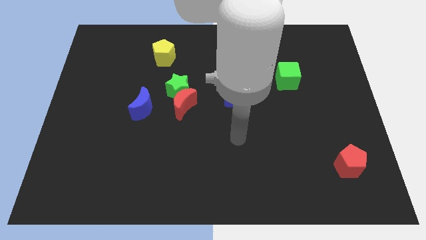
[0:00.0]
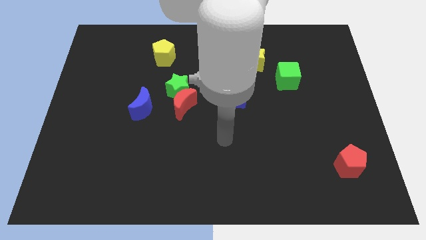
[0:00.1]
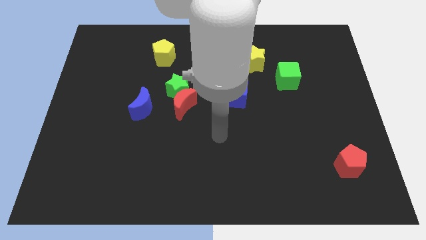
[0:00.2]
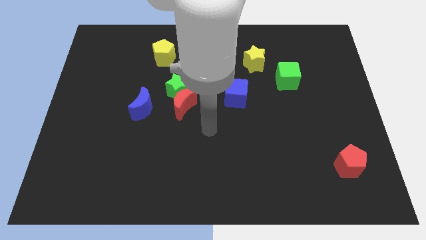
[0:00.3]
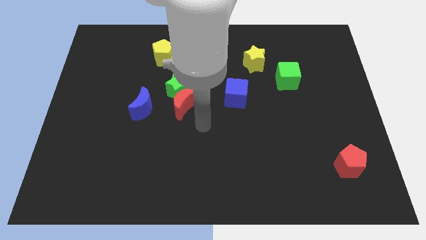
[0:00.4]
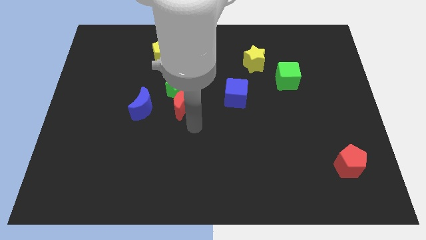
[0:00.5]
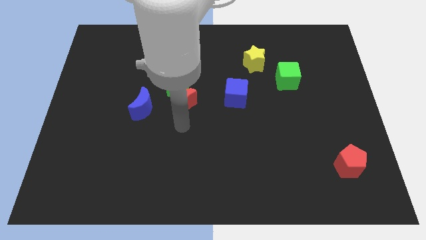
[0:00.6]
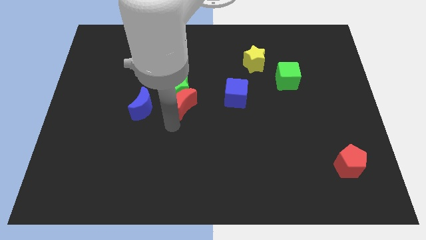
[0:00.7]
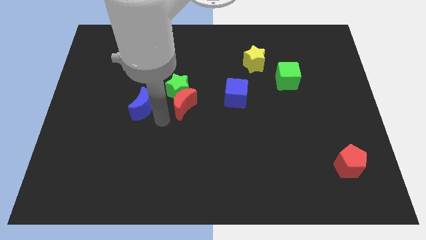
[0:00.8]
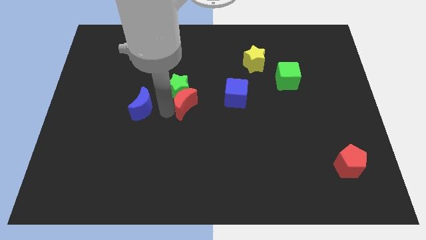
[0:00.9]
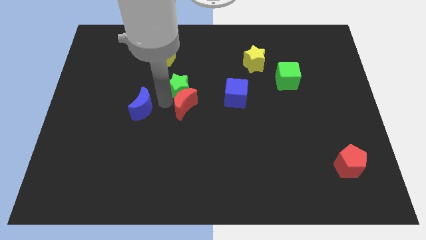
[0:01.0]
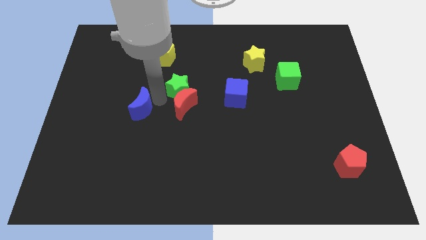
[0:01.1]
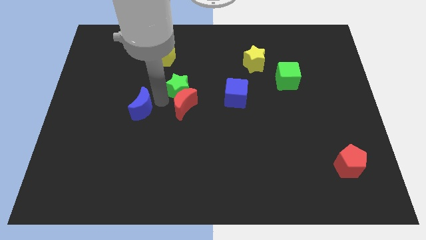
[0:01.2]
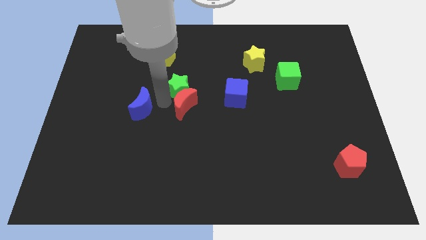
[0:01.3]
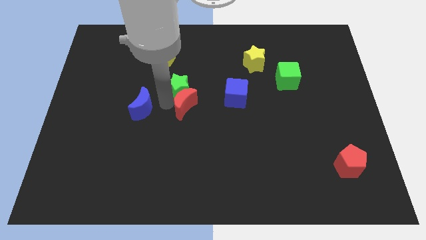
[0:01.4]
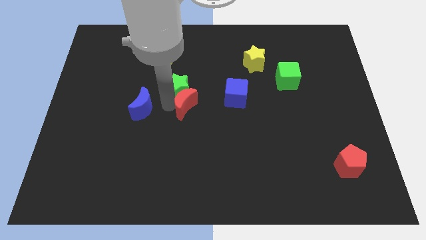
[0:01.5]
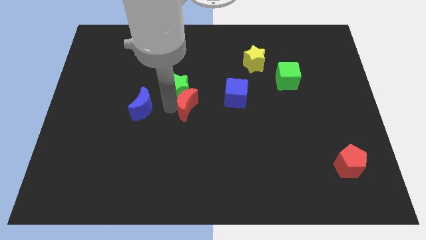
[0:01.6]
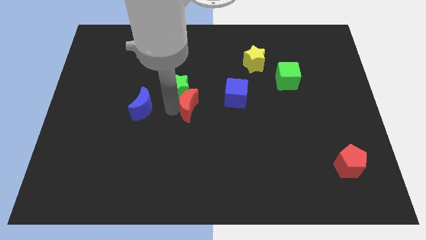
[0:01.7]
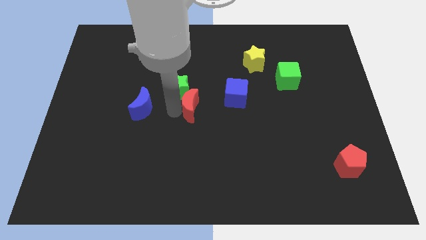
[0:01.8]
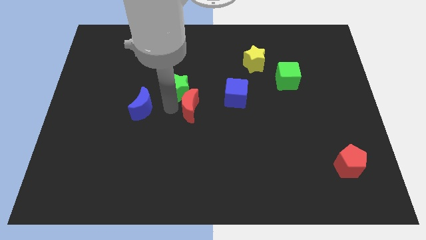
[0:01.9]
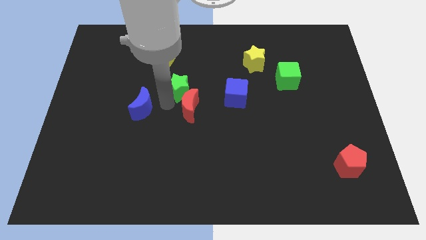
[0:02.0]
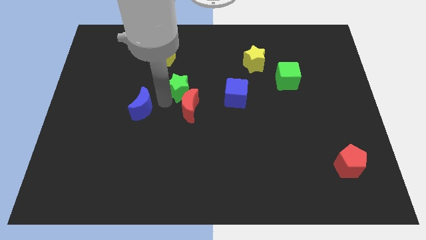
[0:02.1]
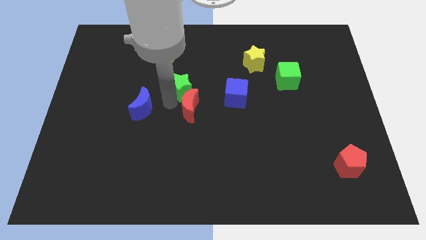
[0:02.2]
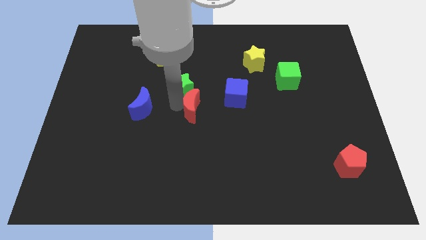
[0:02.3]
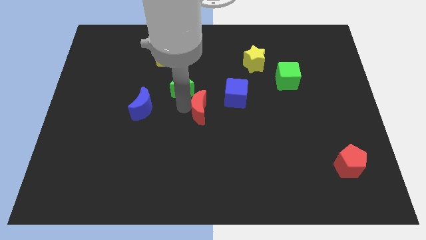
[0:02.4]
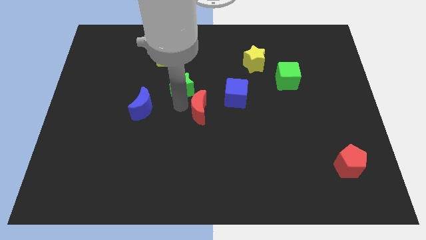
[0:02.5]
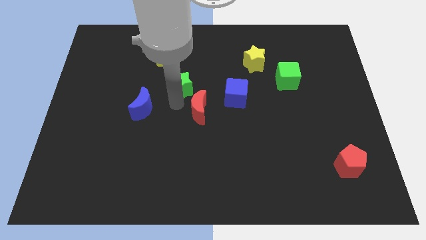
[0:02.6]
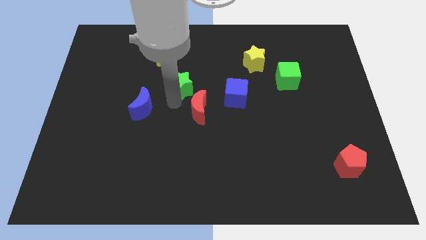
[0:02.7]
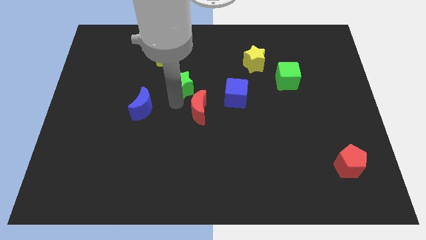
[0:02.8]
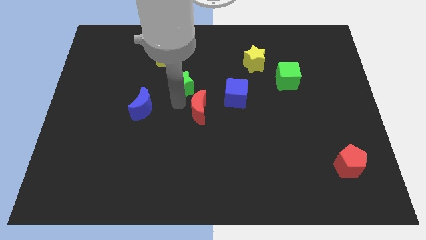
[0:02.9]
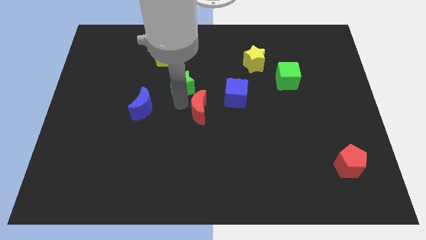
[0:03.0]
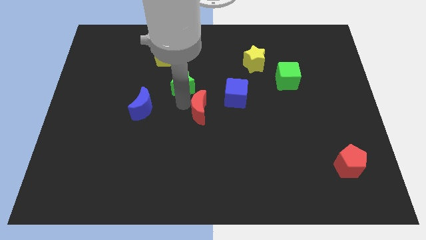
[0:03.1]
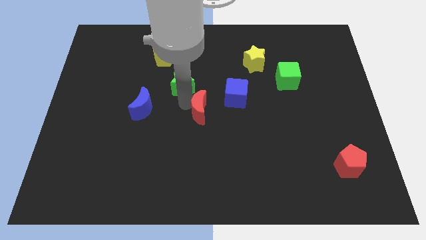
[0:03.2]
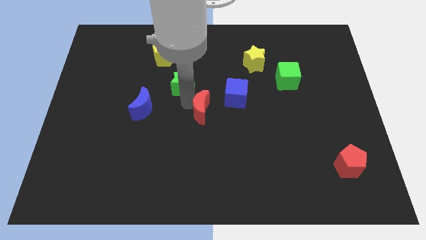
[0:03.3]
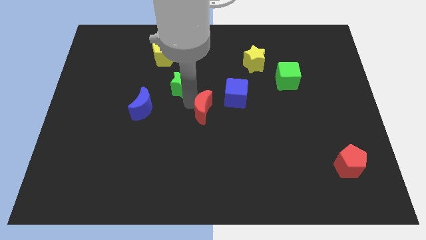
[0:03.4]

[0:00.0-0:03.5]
separate the red moon from the green star and blue moon

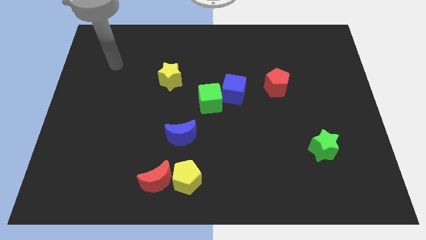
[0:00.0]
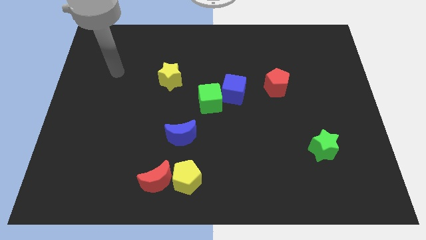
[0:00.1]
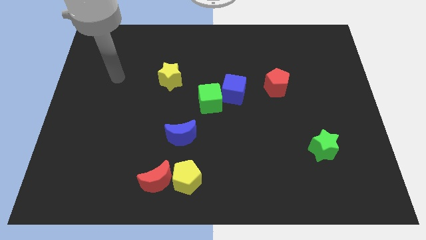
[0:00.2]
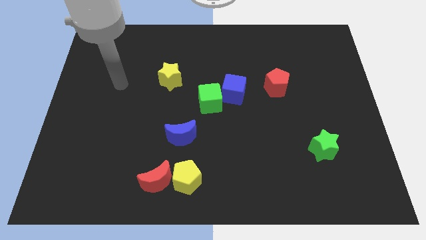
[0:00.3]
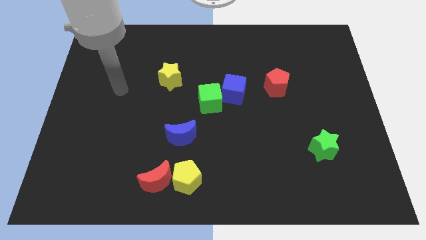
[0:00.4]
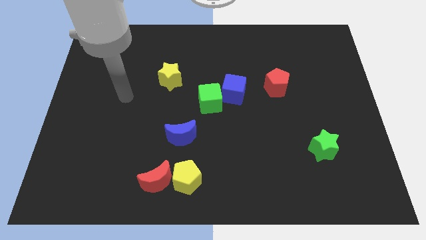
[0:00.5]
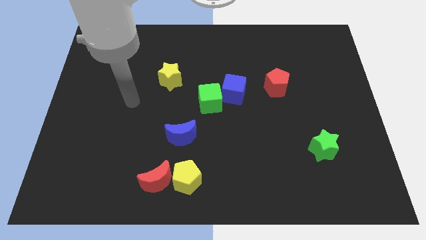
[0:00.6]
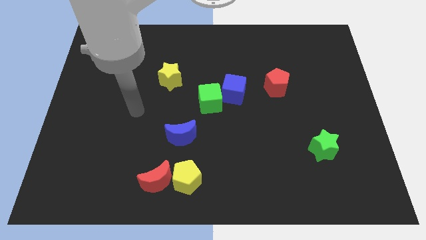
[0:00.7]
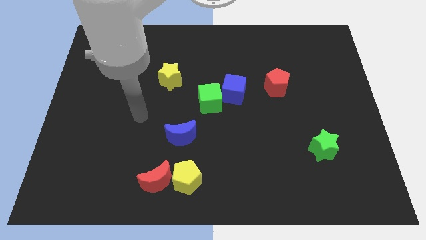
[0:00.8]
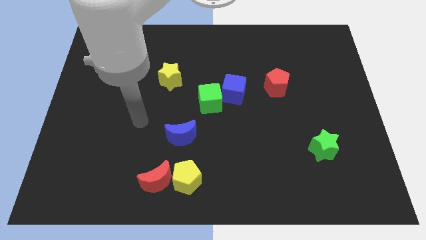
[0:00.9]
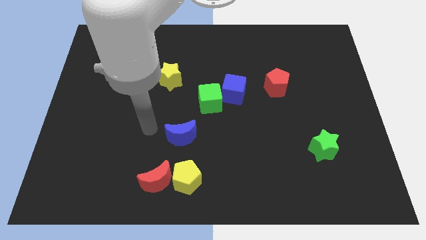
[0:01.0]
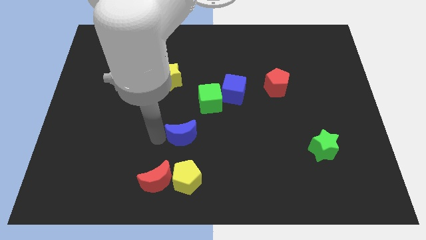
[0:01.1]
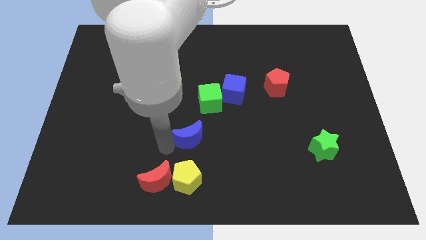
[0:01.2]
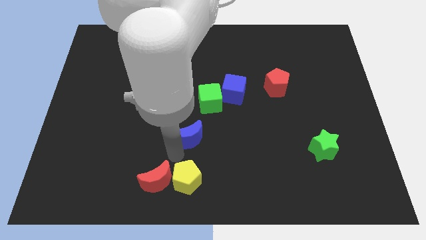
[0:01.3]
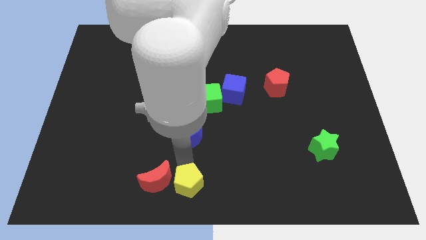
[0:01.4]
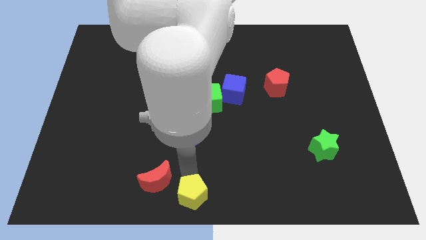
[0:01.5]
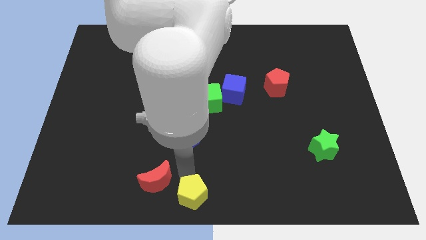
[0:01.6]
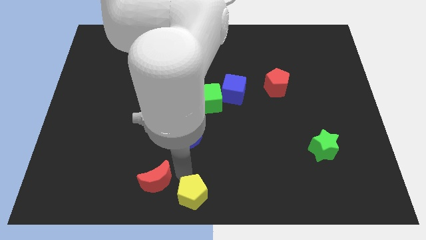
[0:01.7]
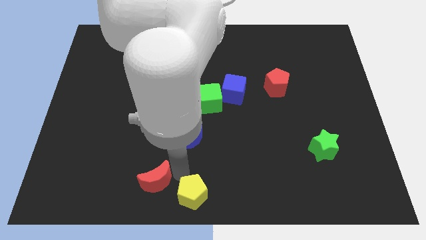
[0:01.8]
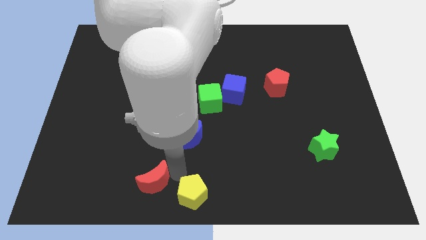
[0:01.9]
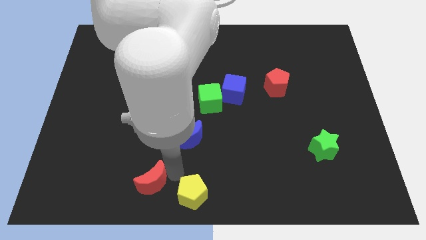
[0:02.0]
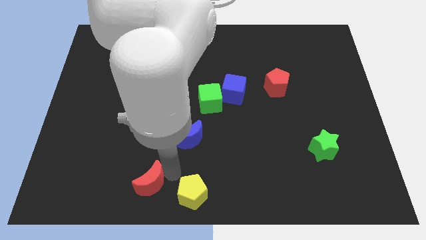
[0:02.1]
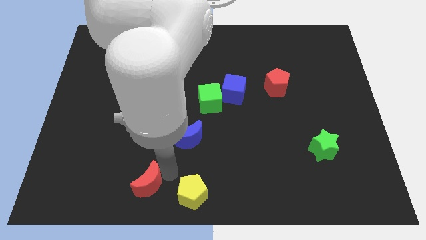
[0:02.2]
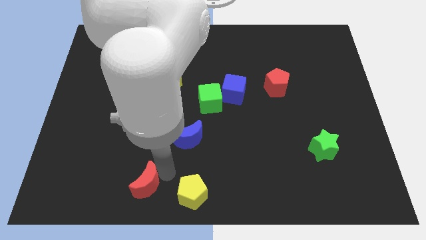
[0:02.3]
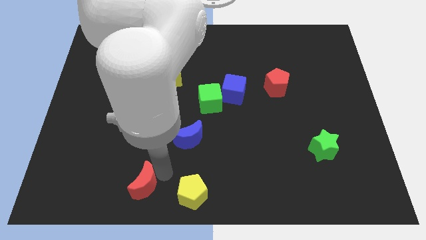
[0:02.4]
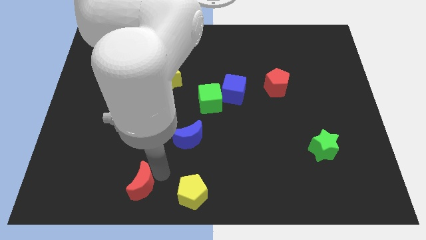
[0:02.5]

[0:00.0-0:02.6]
separate the red moon from the yellow pentagon

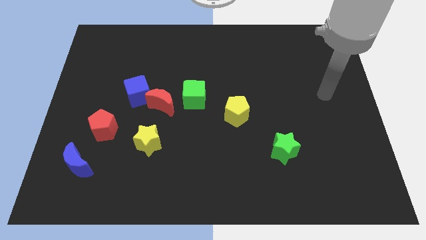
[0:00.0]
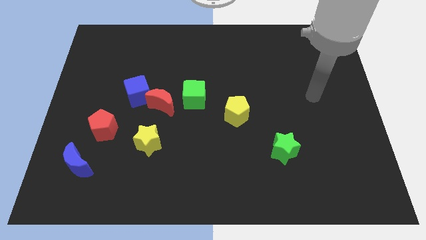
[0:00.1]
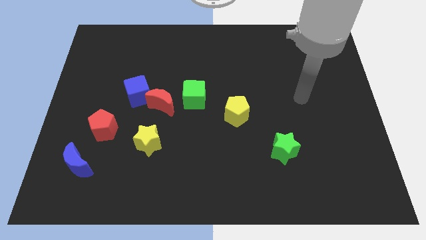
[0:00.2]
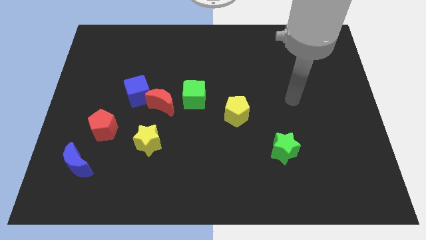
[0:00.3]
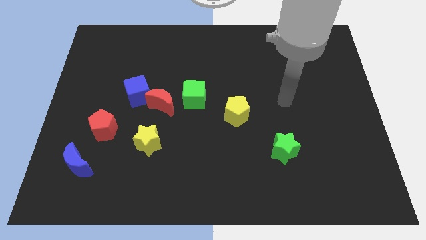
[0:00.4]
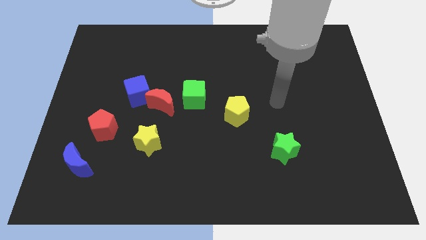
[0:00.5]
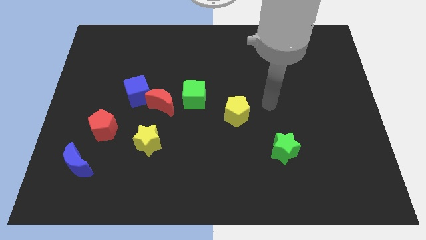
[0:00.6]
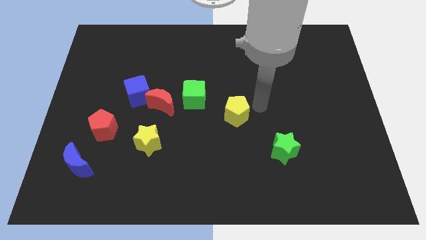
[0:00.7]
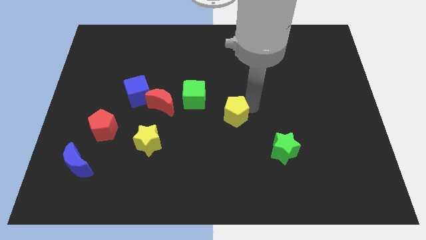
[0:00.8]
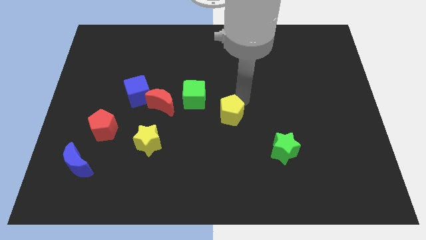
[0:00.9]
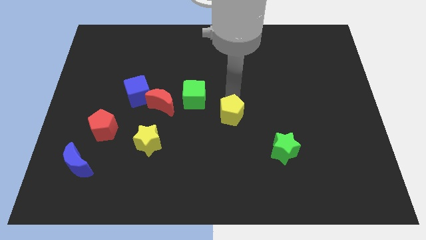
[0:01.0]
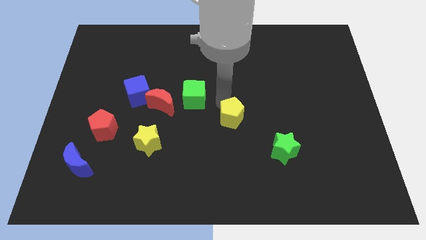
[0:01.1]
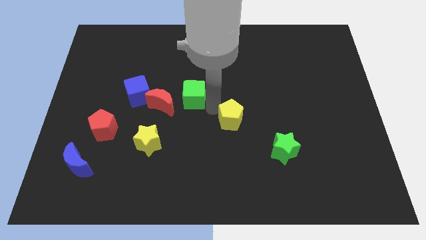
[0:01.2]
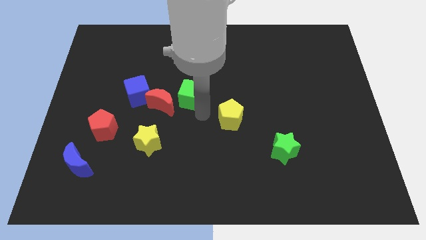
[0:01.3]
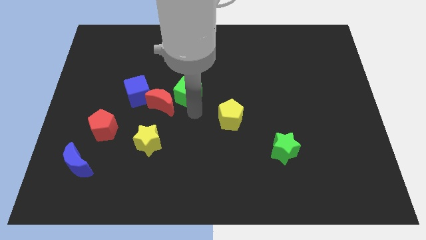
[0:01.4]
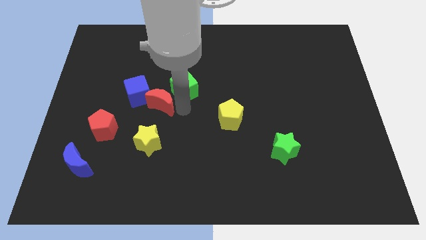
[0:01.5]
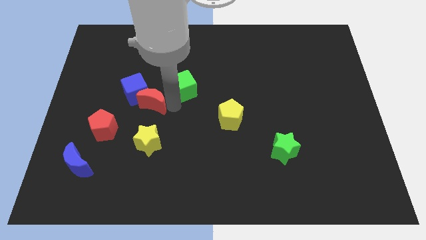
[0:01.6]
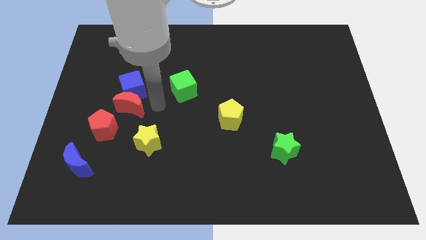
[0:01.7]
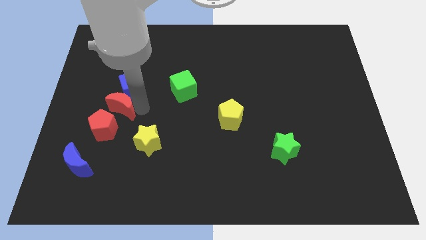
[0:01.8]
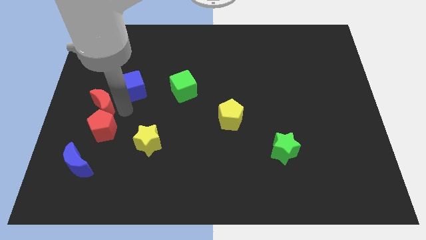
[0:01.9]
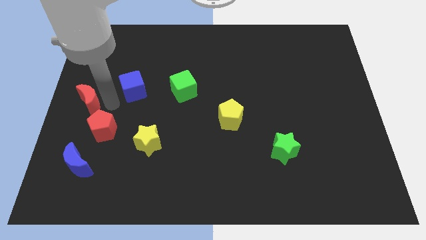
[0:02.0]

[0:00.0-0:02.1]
move the blue cube away from the red moon

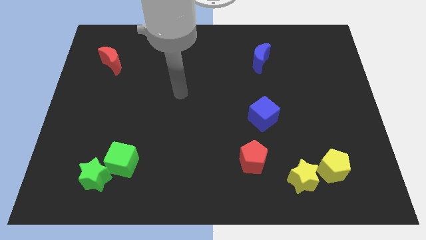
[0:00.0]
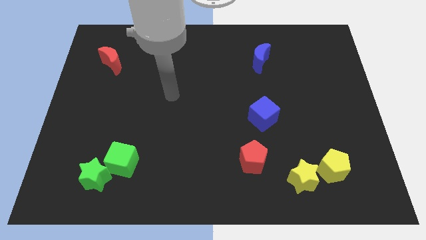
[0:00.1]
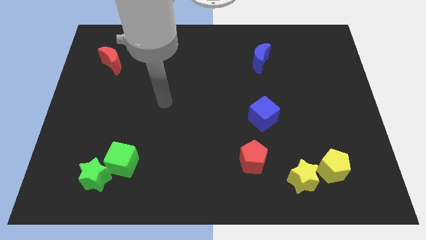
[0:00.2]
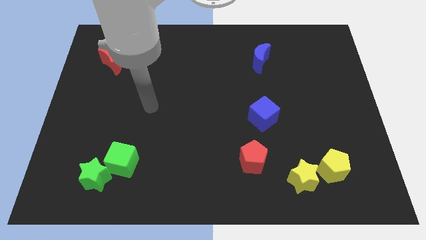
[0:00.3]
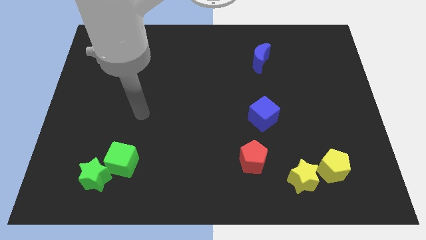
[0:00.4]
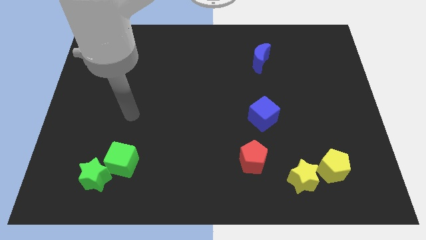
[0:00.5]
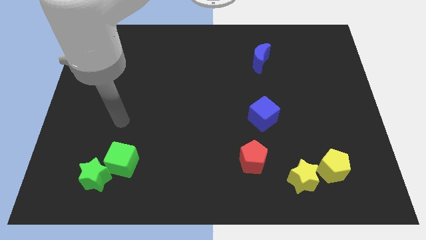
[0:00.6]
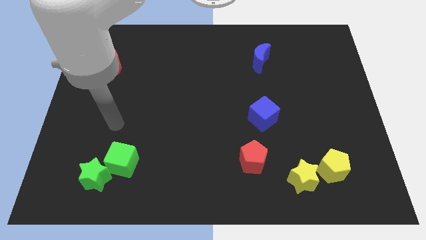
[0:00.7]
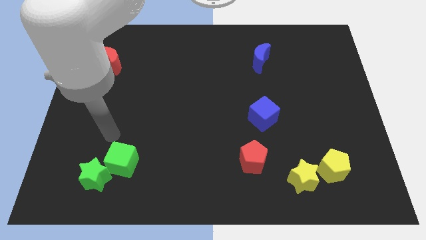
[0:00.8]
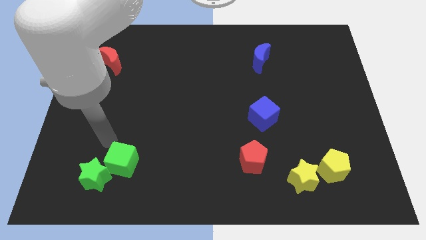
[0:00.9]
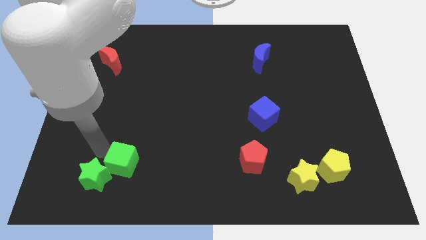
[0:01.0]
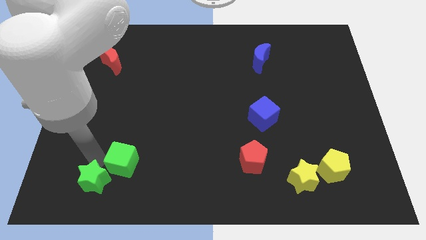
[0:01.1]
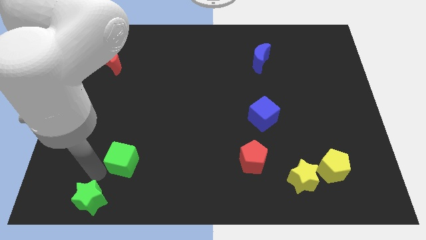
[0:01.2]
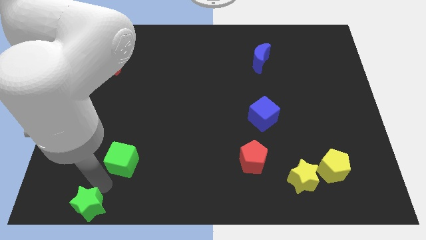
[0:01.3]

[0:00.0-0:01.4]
separate the green cube from the green star
